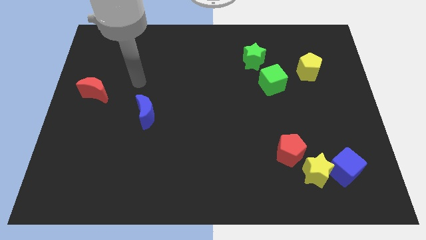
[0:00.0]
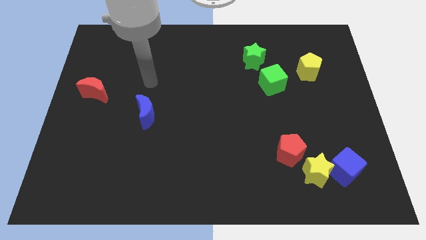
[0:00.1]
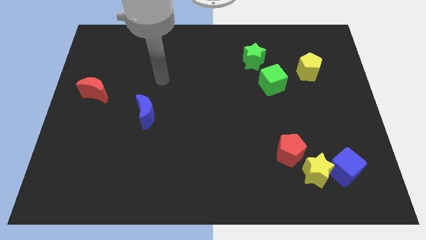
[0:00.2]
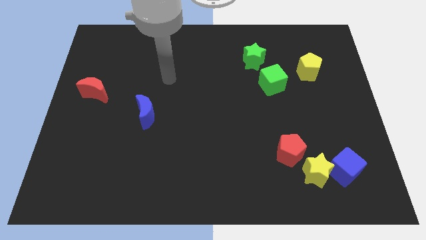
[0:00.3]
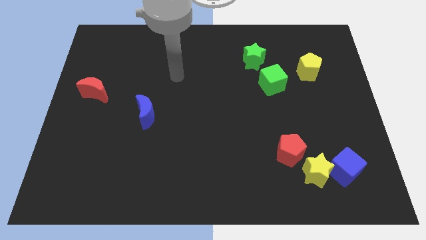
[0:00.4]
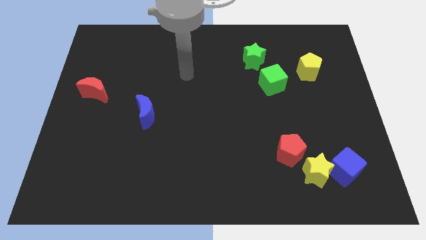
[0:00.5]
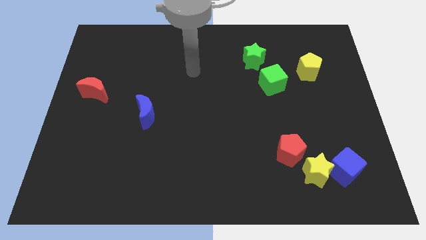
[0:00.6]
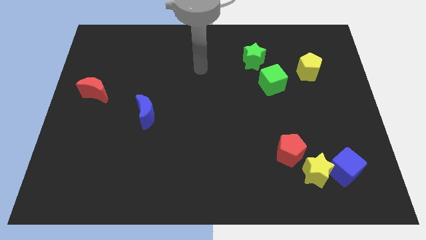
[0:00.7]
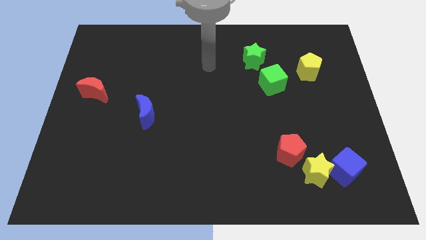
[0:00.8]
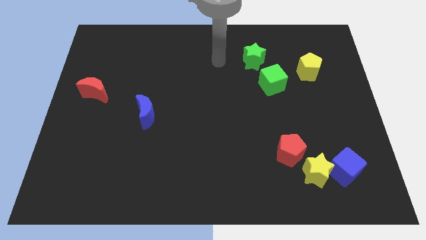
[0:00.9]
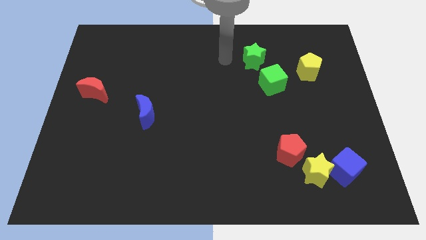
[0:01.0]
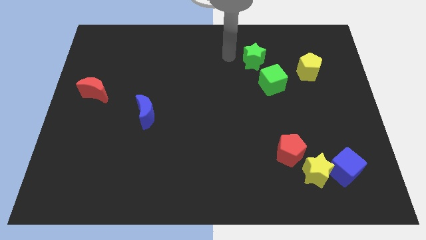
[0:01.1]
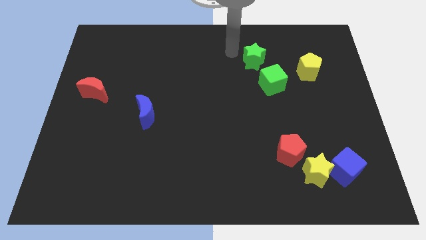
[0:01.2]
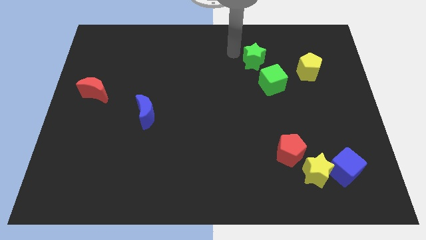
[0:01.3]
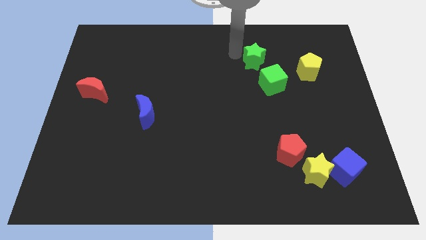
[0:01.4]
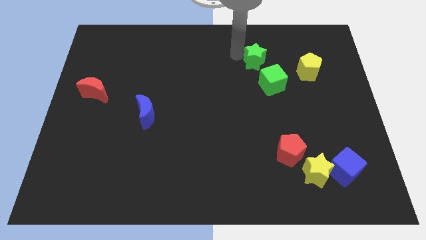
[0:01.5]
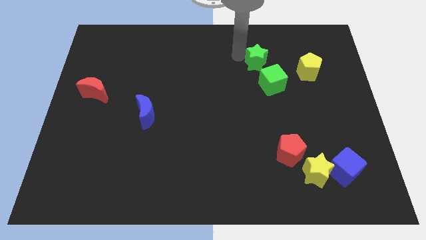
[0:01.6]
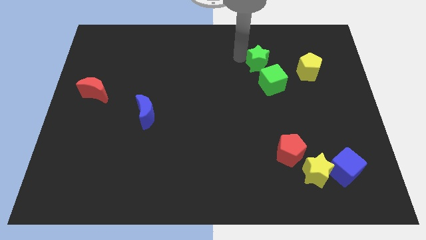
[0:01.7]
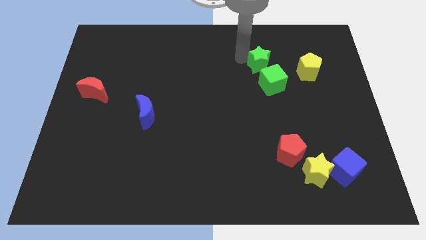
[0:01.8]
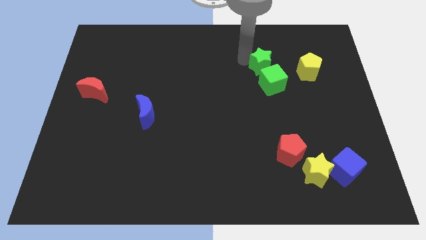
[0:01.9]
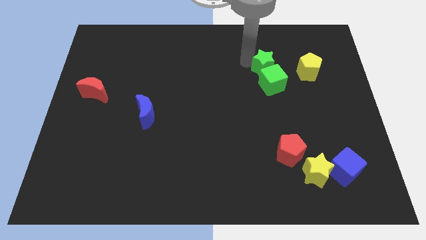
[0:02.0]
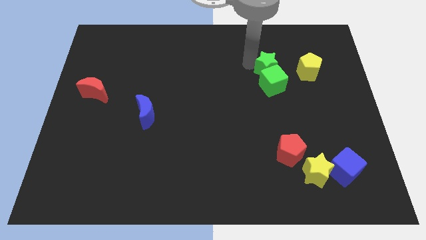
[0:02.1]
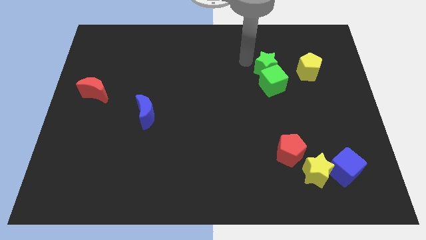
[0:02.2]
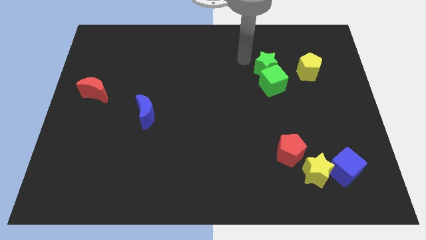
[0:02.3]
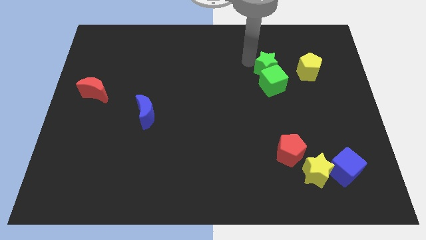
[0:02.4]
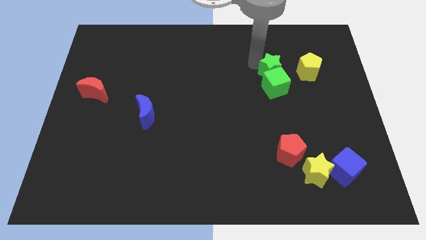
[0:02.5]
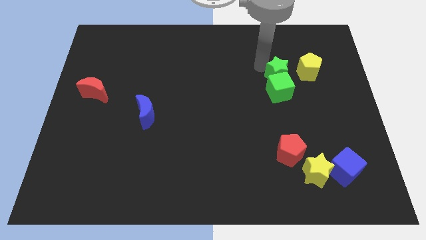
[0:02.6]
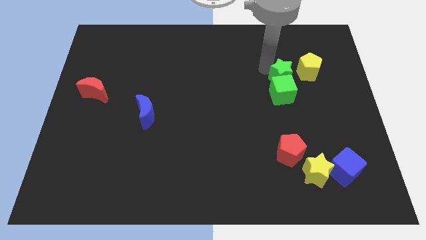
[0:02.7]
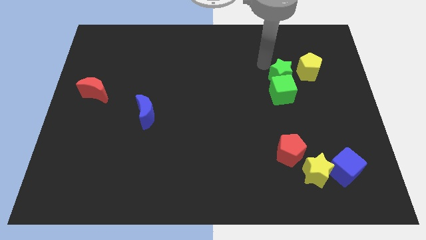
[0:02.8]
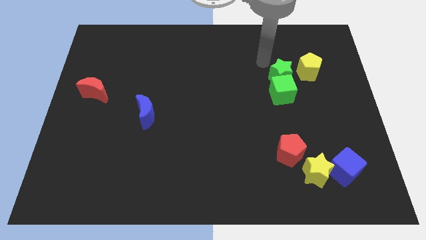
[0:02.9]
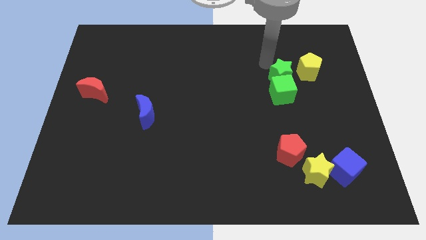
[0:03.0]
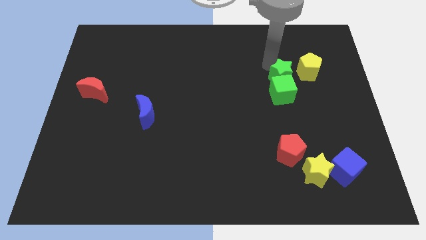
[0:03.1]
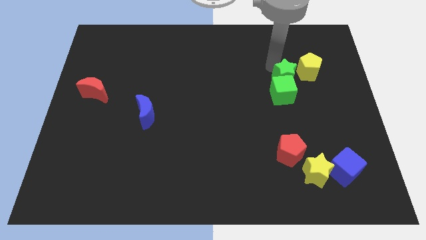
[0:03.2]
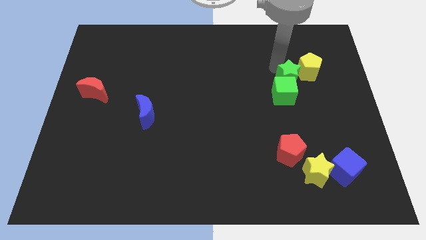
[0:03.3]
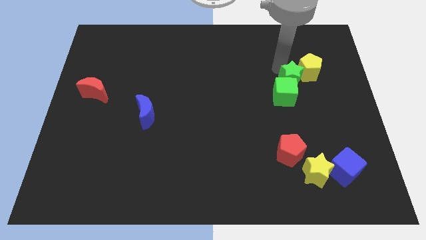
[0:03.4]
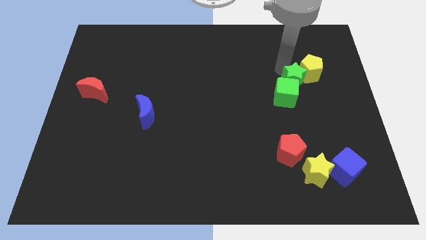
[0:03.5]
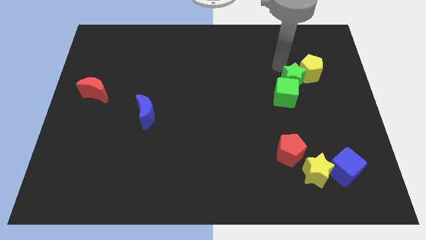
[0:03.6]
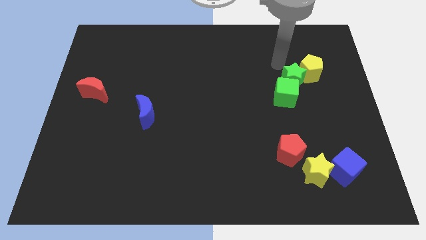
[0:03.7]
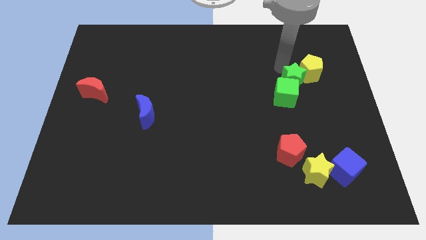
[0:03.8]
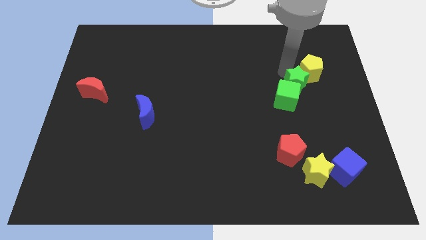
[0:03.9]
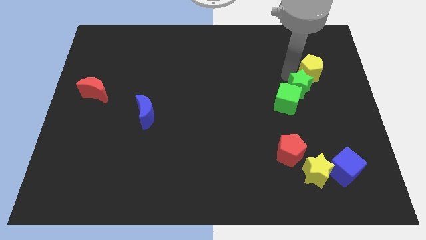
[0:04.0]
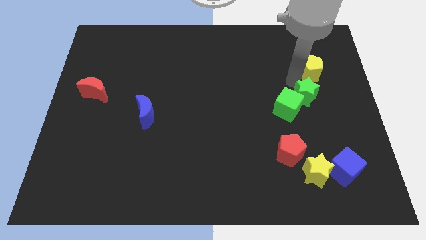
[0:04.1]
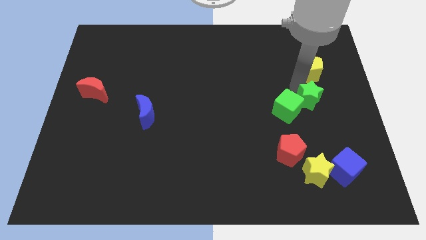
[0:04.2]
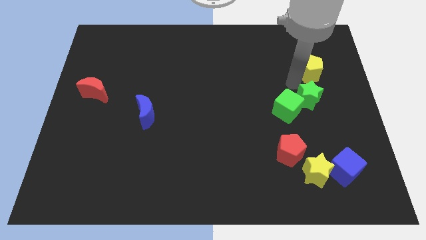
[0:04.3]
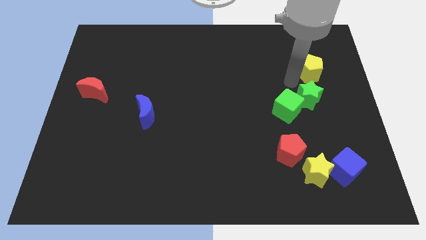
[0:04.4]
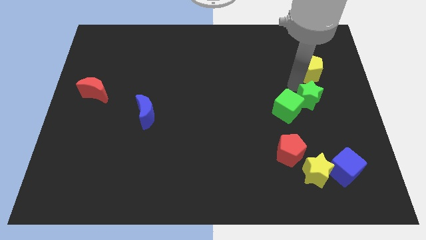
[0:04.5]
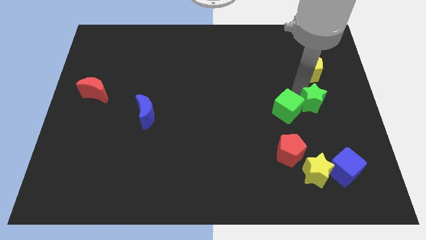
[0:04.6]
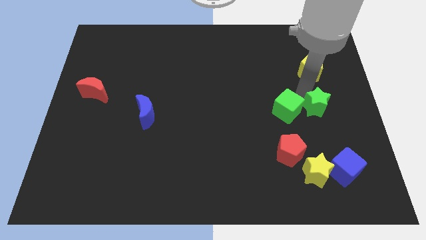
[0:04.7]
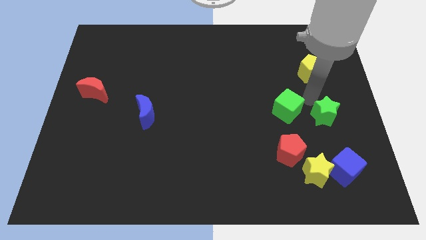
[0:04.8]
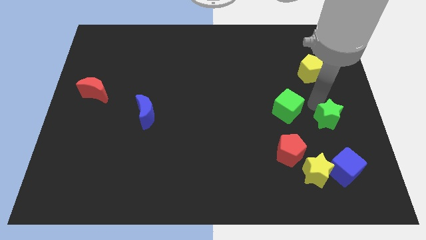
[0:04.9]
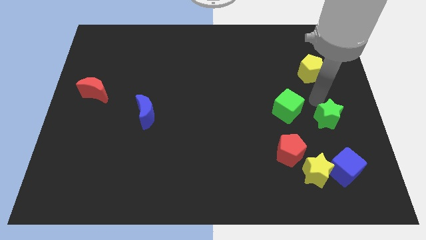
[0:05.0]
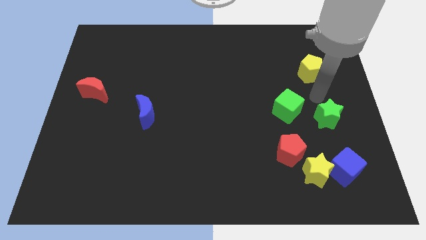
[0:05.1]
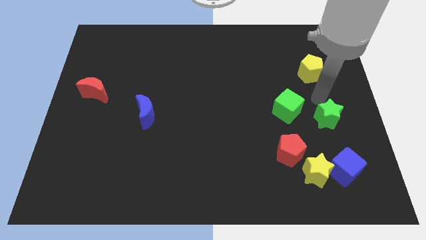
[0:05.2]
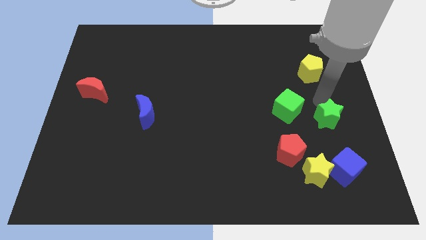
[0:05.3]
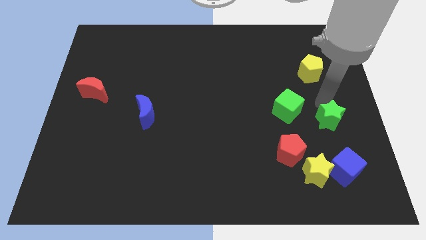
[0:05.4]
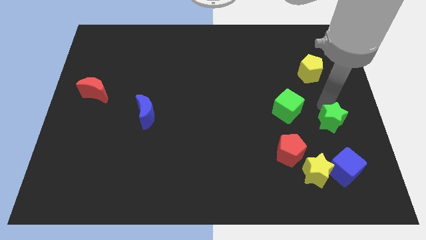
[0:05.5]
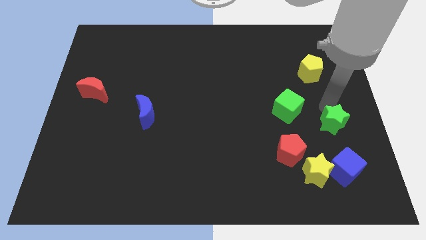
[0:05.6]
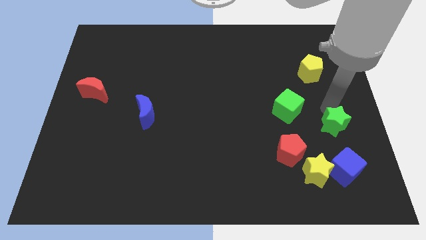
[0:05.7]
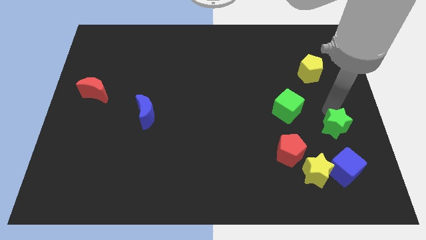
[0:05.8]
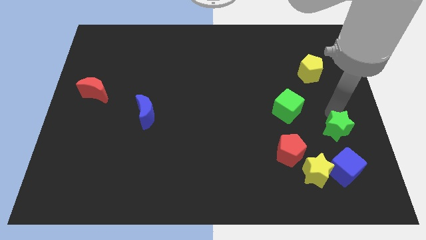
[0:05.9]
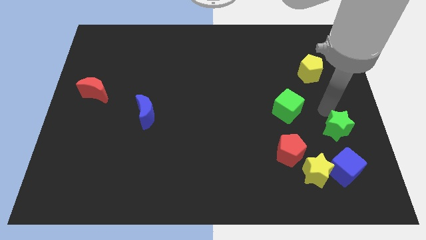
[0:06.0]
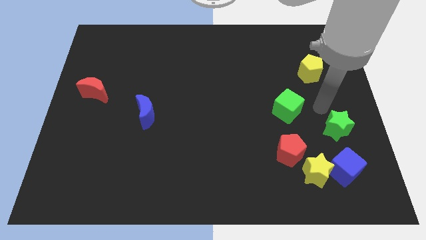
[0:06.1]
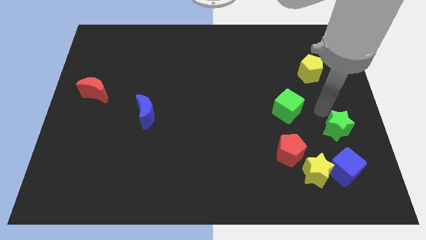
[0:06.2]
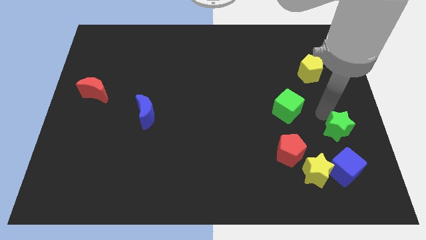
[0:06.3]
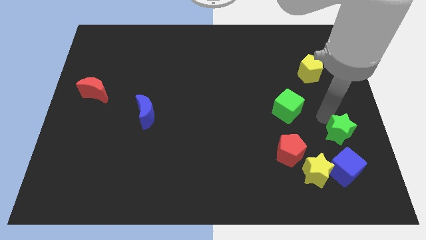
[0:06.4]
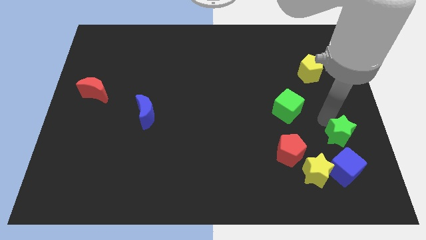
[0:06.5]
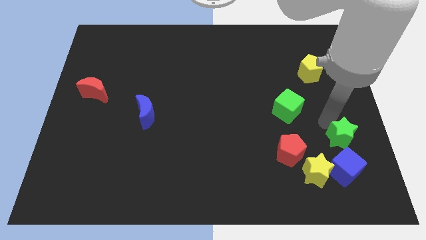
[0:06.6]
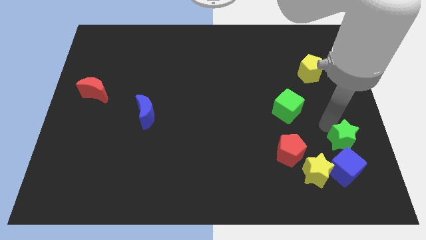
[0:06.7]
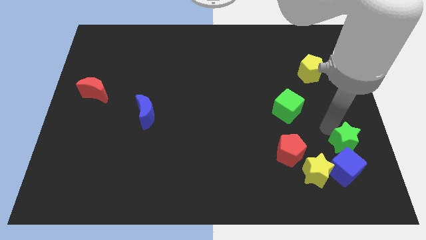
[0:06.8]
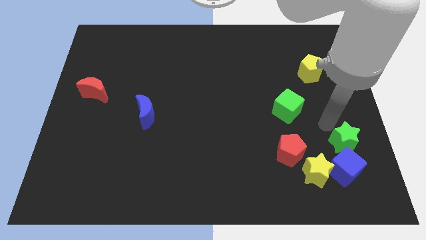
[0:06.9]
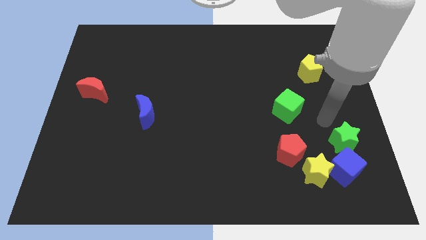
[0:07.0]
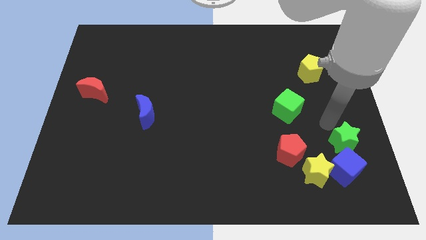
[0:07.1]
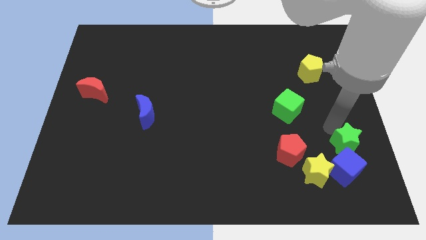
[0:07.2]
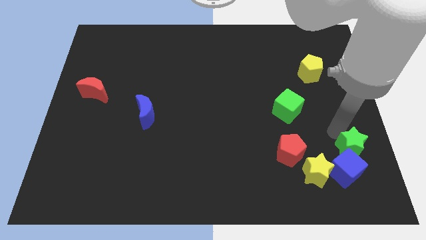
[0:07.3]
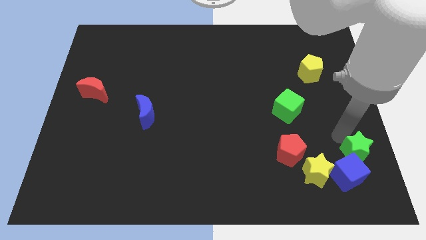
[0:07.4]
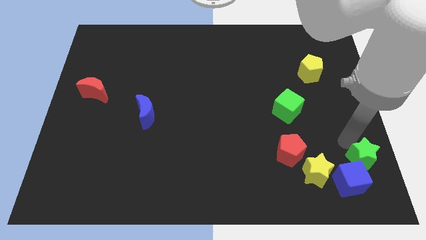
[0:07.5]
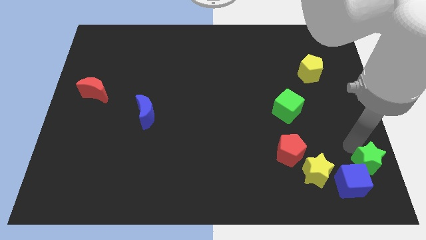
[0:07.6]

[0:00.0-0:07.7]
put the green star to the bottom right
